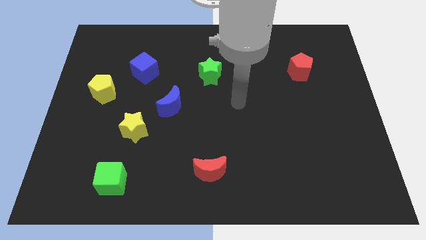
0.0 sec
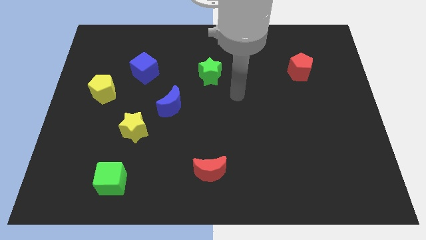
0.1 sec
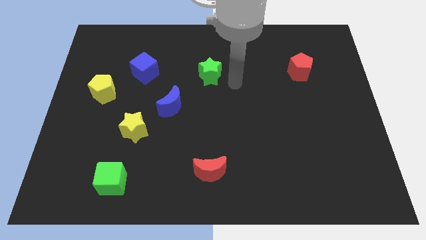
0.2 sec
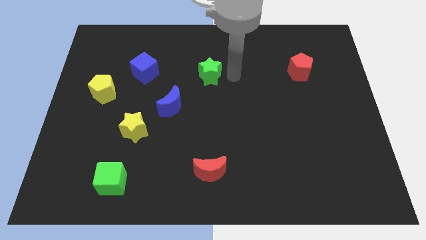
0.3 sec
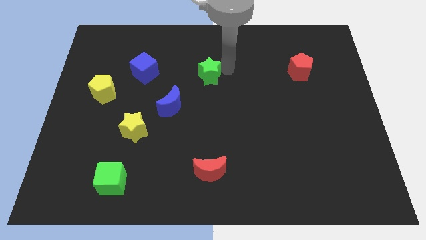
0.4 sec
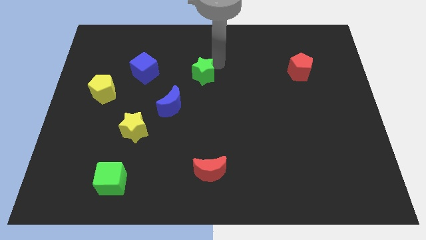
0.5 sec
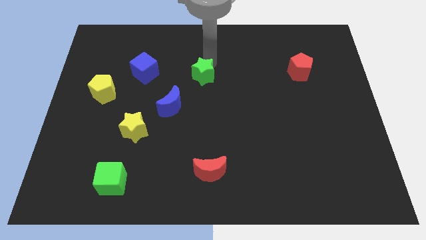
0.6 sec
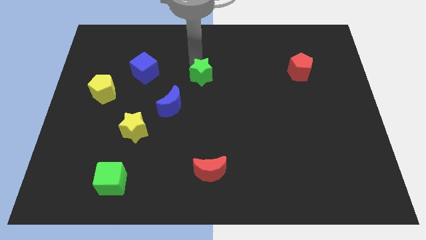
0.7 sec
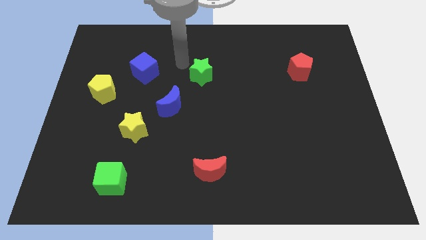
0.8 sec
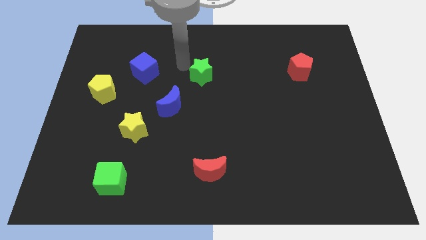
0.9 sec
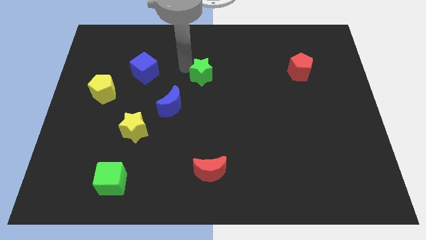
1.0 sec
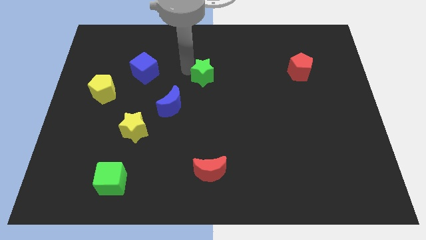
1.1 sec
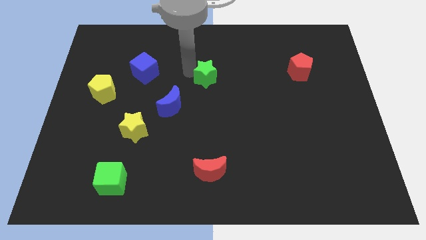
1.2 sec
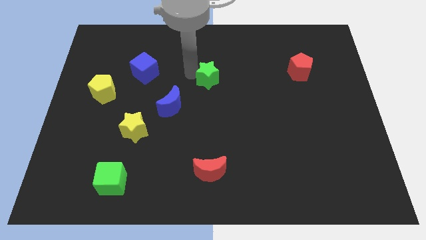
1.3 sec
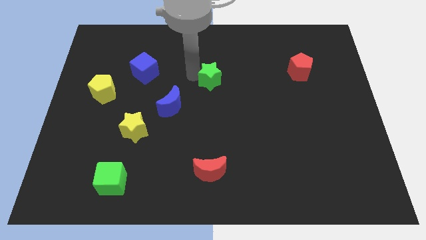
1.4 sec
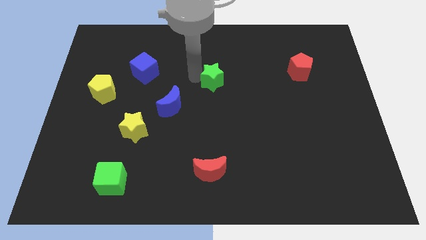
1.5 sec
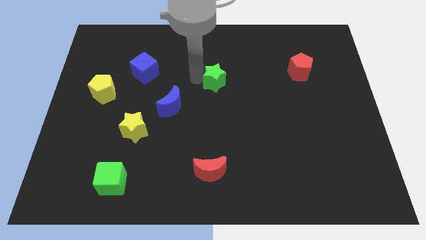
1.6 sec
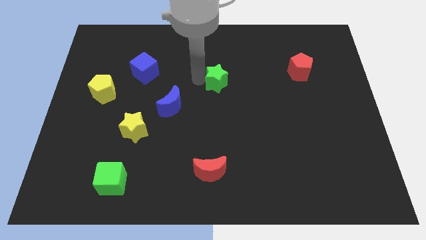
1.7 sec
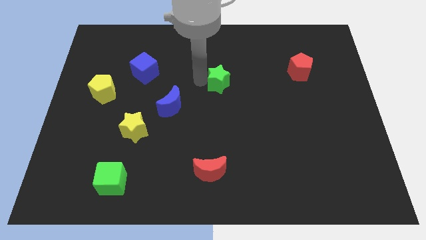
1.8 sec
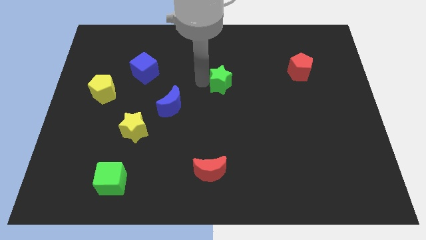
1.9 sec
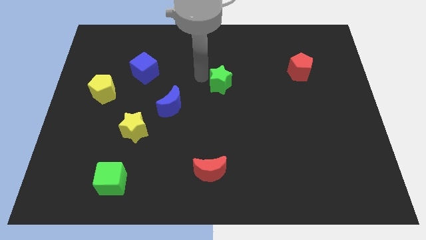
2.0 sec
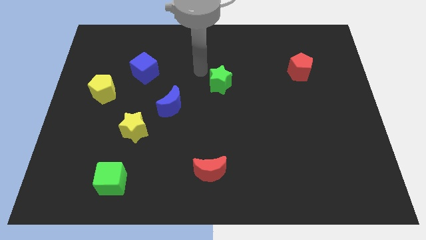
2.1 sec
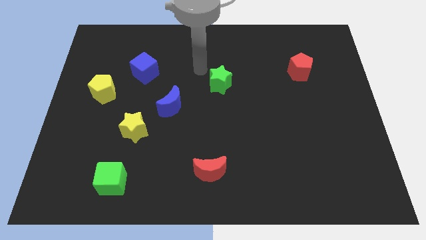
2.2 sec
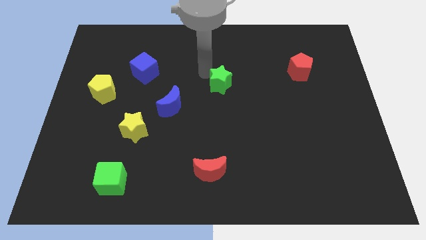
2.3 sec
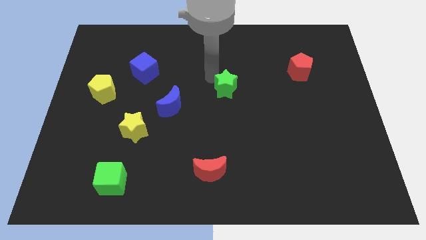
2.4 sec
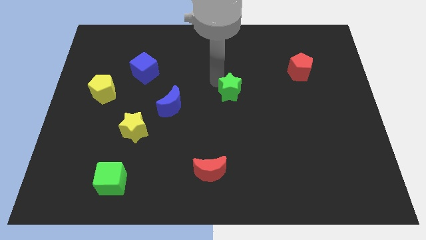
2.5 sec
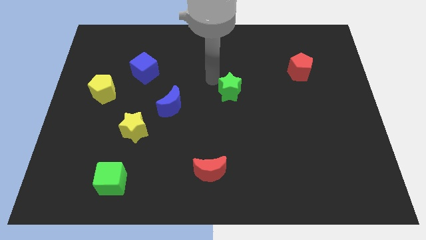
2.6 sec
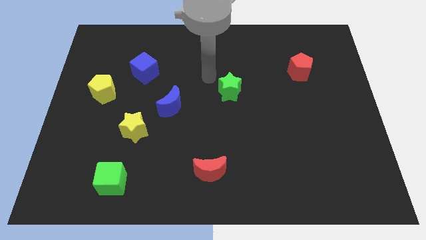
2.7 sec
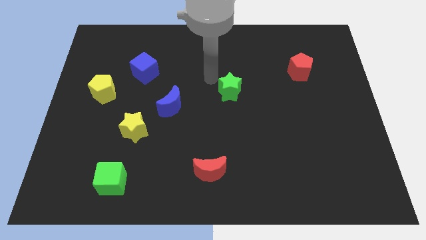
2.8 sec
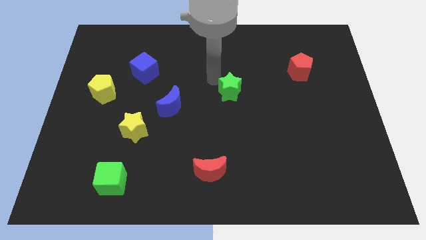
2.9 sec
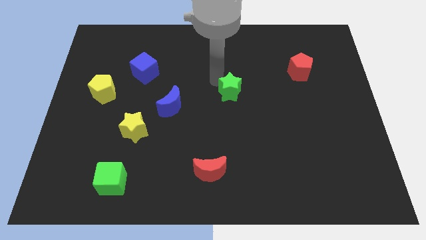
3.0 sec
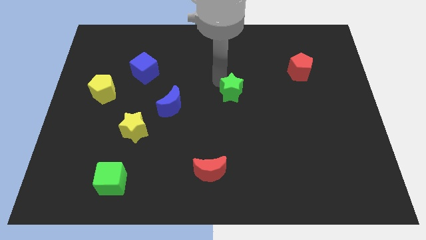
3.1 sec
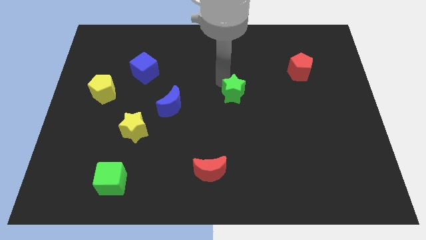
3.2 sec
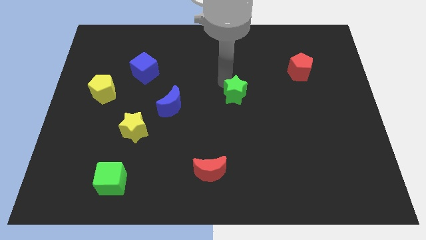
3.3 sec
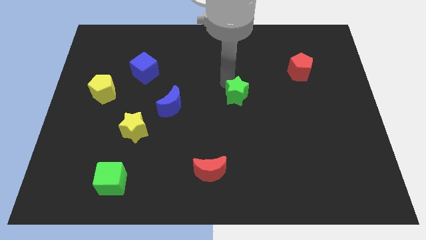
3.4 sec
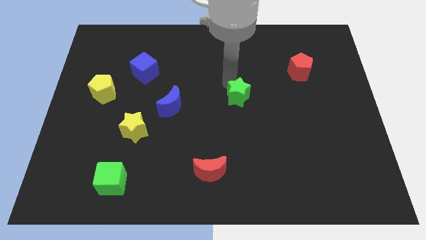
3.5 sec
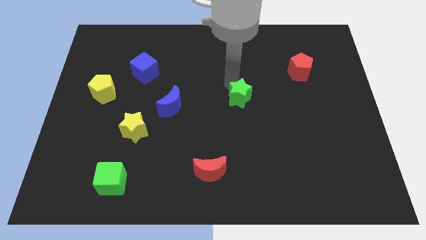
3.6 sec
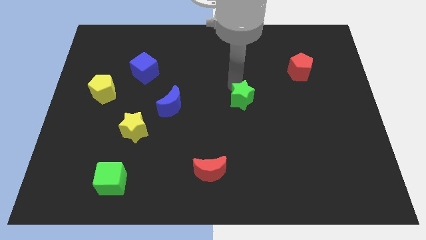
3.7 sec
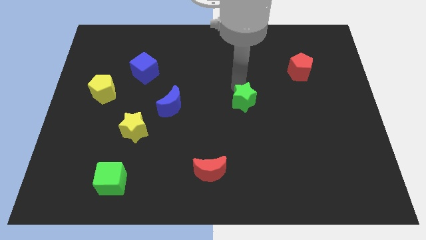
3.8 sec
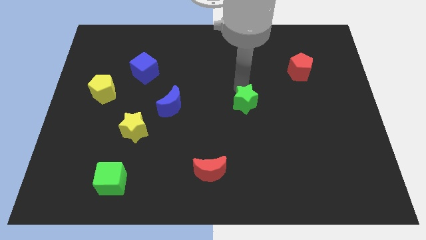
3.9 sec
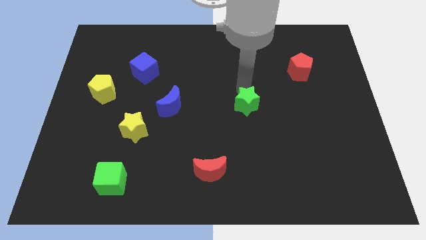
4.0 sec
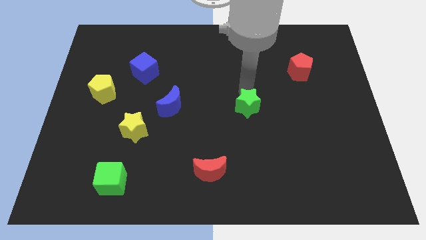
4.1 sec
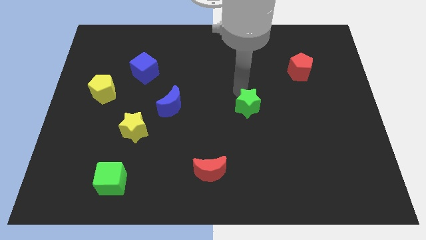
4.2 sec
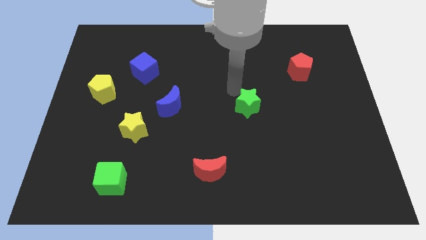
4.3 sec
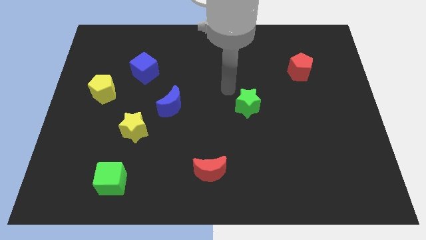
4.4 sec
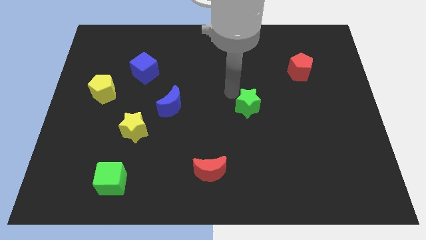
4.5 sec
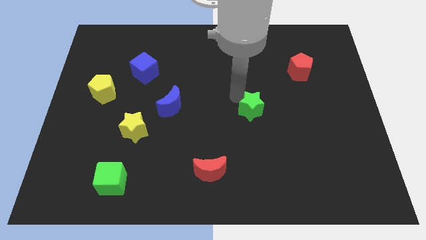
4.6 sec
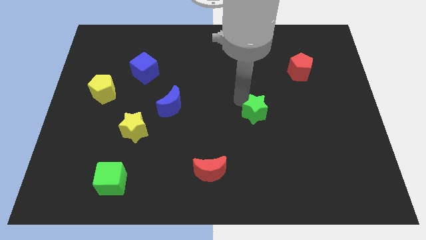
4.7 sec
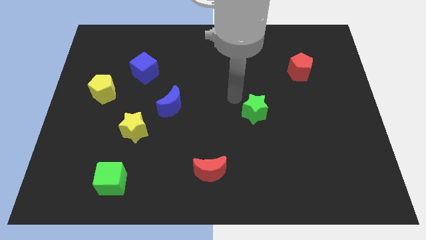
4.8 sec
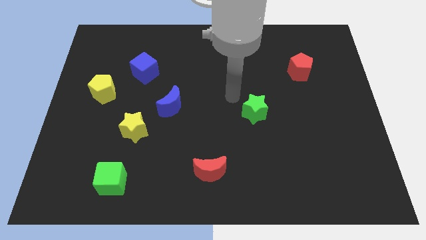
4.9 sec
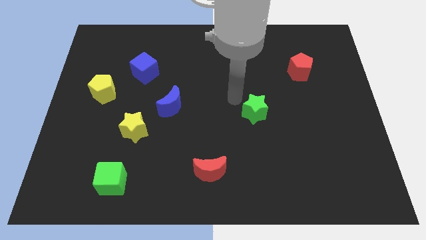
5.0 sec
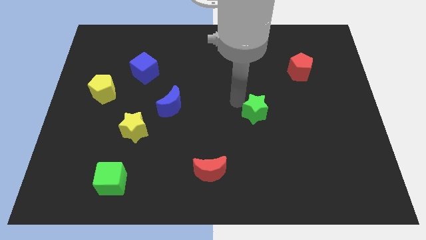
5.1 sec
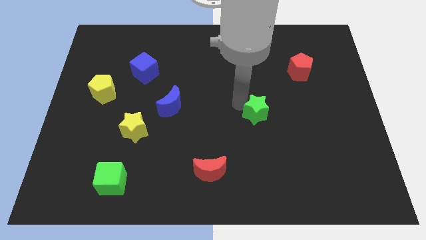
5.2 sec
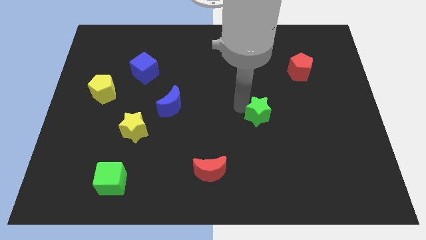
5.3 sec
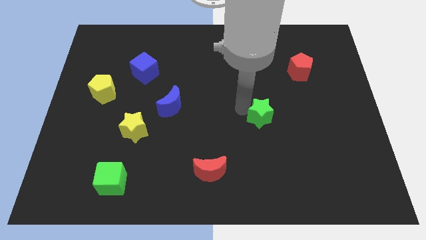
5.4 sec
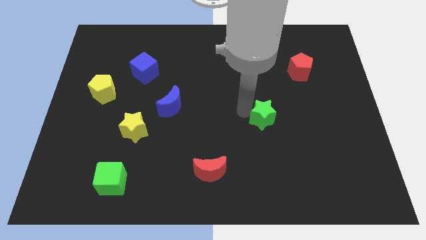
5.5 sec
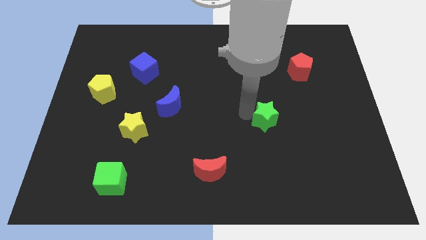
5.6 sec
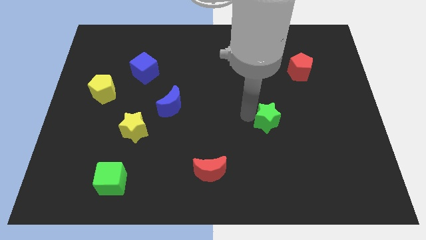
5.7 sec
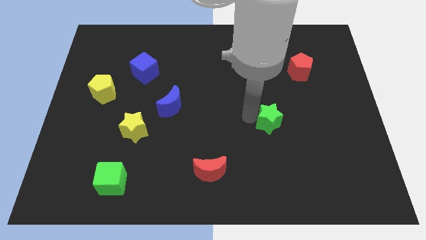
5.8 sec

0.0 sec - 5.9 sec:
push the green star down and then to the right

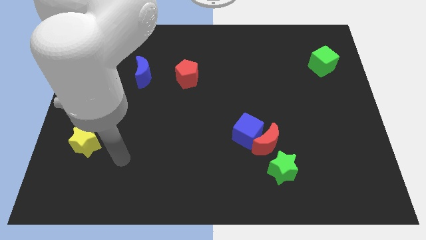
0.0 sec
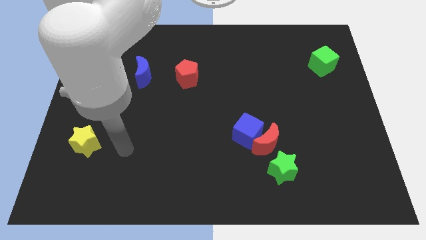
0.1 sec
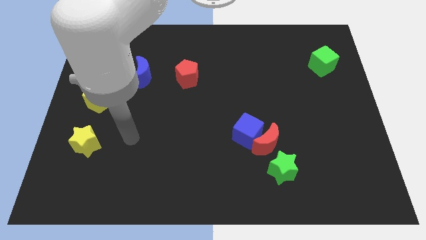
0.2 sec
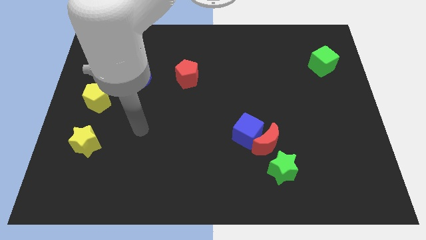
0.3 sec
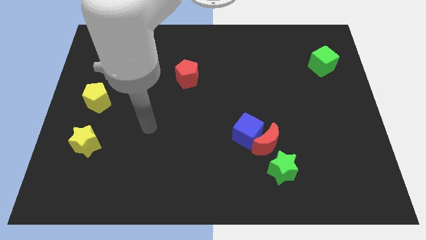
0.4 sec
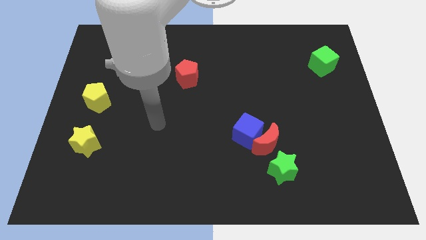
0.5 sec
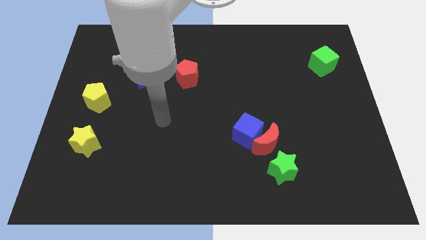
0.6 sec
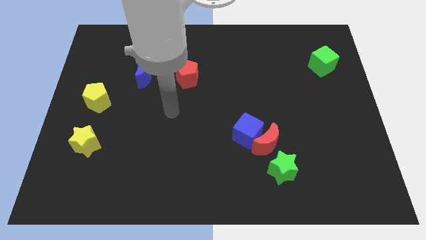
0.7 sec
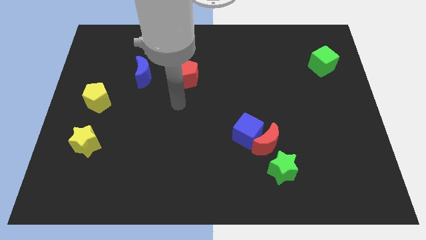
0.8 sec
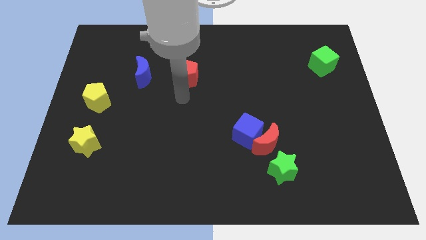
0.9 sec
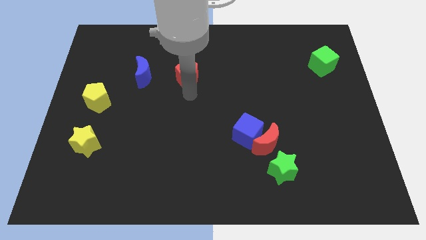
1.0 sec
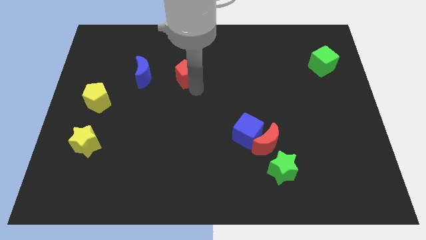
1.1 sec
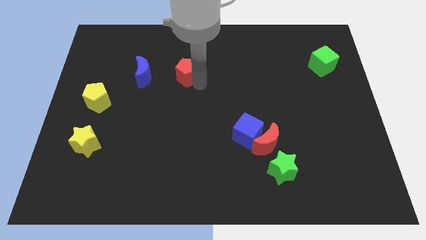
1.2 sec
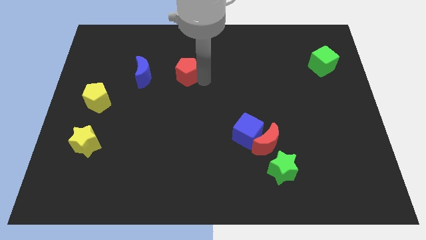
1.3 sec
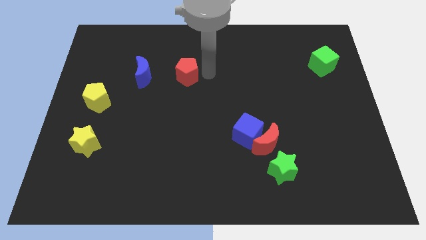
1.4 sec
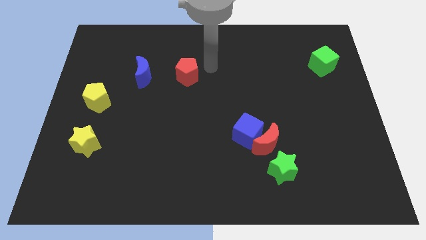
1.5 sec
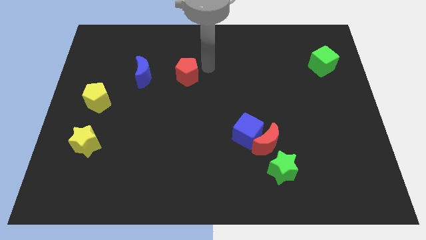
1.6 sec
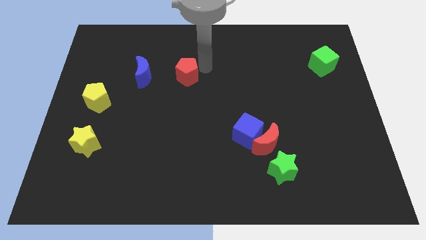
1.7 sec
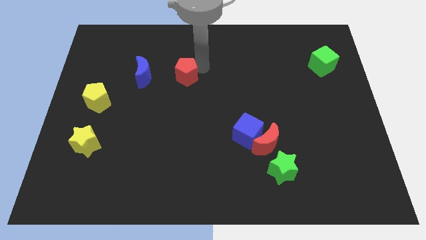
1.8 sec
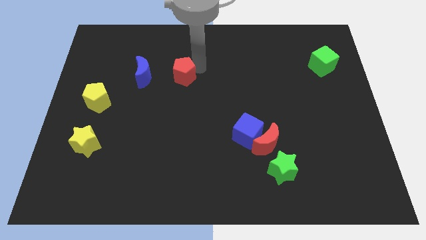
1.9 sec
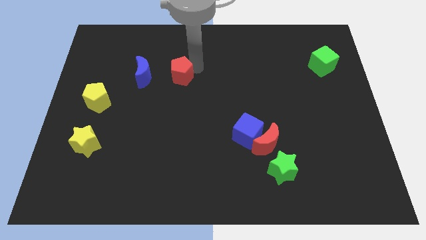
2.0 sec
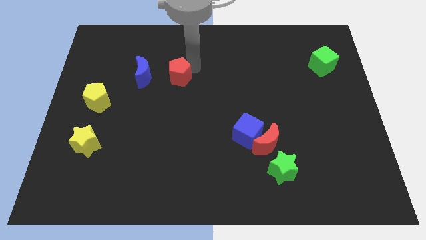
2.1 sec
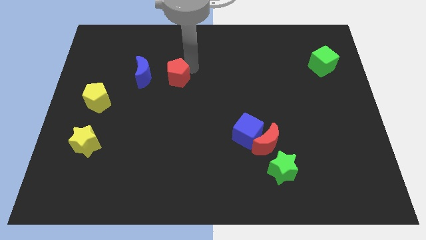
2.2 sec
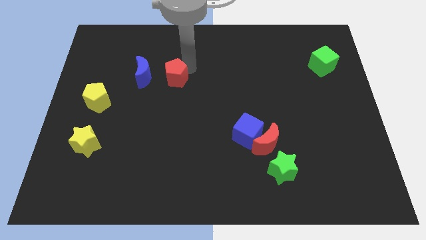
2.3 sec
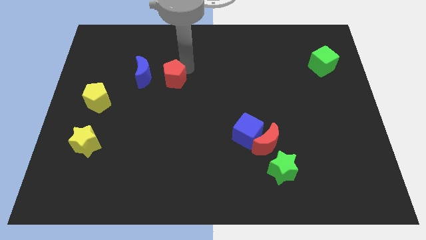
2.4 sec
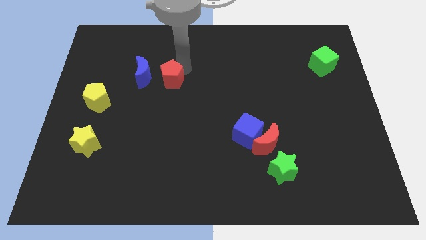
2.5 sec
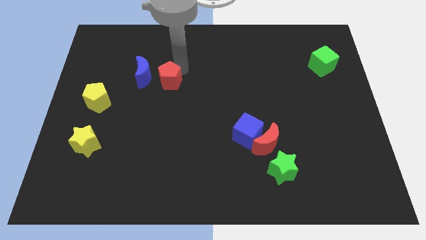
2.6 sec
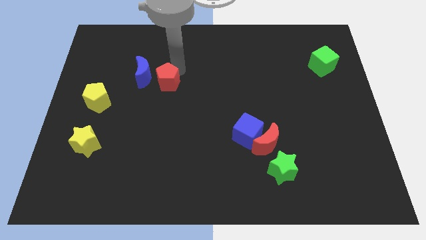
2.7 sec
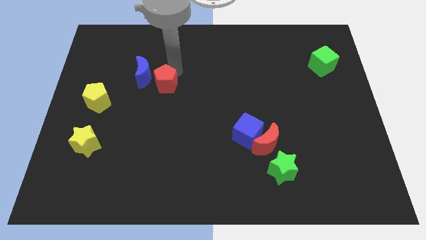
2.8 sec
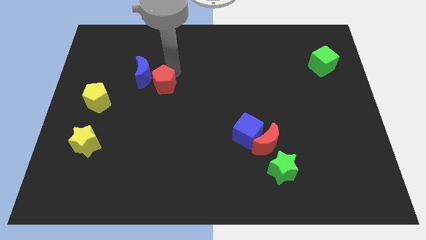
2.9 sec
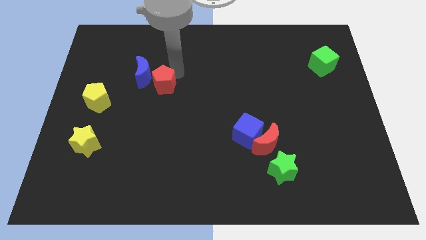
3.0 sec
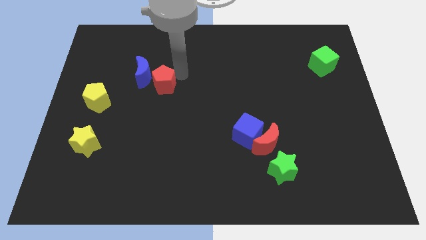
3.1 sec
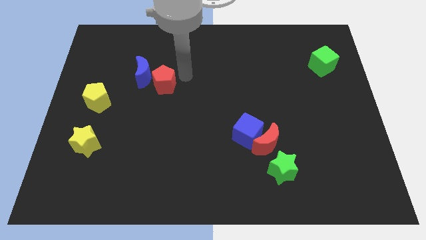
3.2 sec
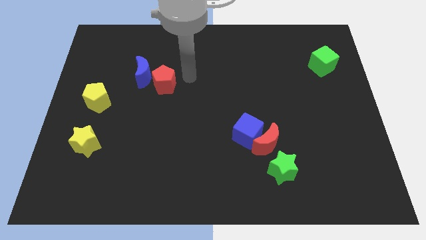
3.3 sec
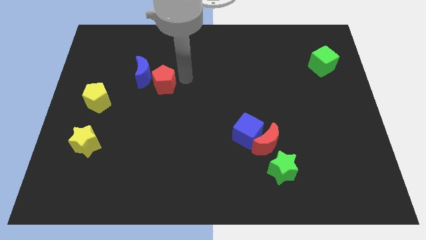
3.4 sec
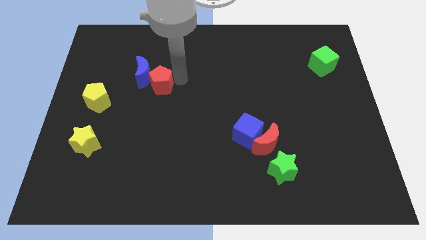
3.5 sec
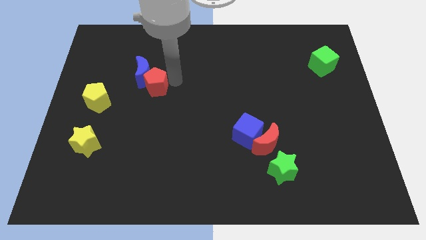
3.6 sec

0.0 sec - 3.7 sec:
move the red pentagon to the left slightly
